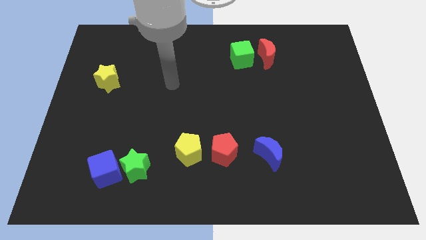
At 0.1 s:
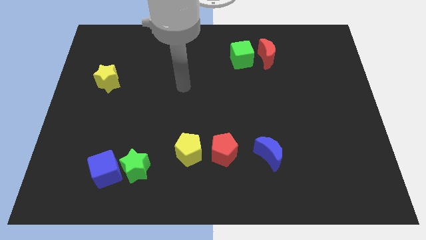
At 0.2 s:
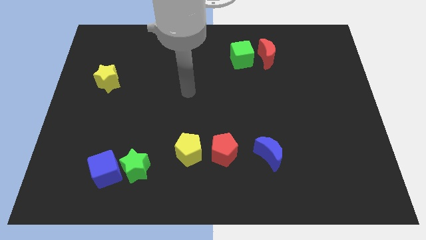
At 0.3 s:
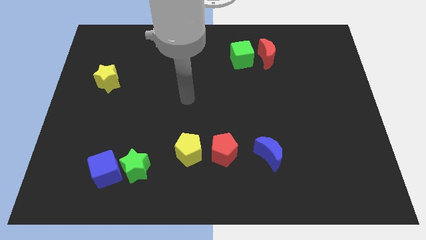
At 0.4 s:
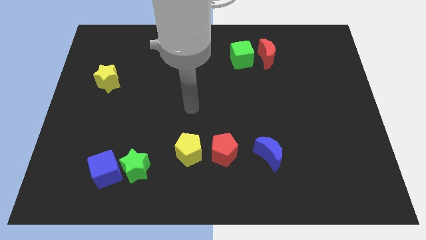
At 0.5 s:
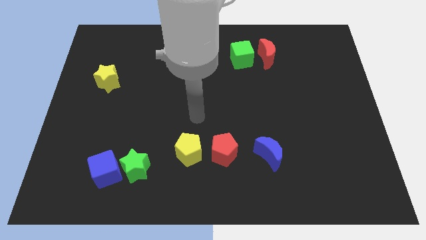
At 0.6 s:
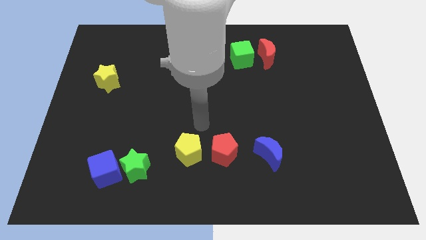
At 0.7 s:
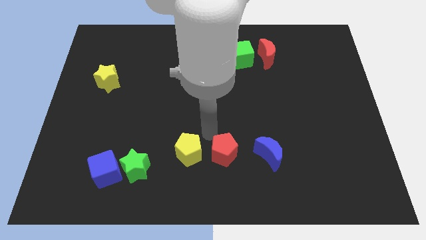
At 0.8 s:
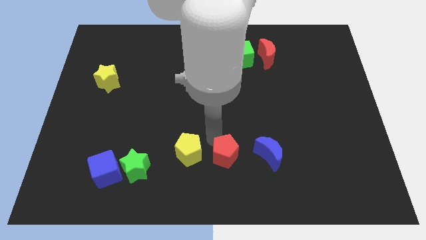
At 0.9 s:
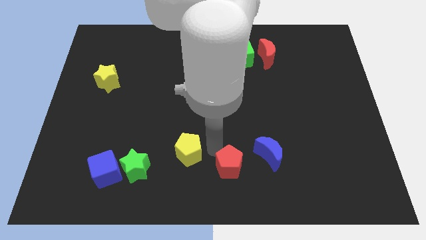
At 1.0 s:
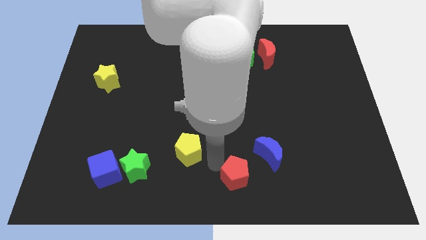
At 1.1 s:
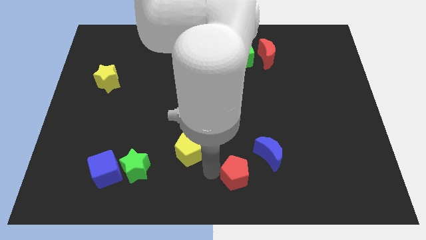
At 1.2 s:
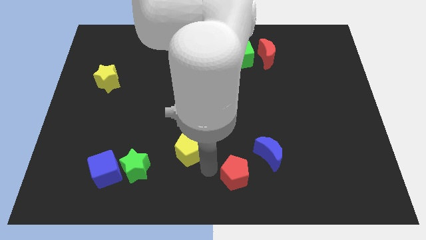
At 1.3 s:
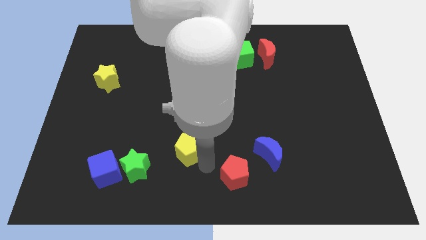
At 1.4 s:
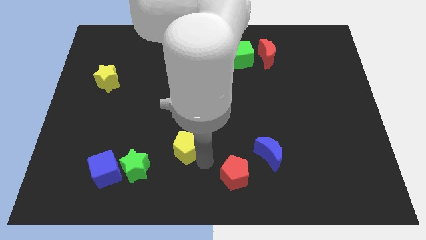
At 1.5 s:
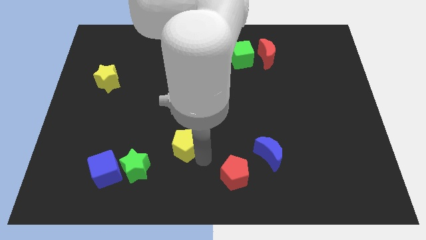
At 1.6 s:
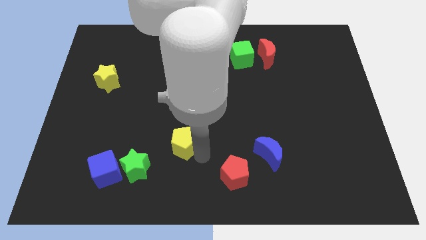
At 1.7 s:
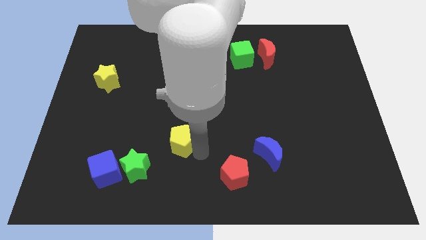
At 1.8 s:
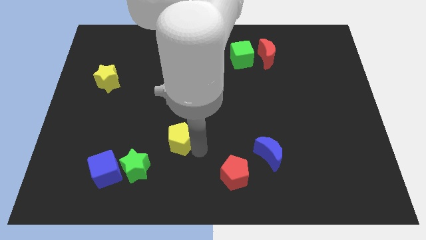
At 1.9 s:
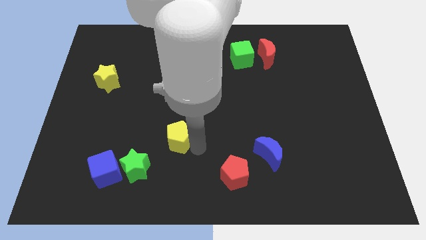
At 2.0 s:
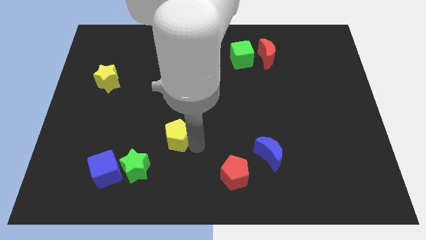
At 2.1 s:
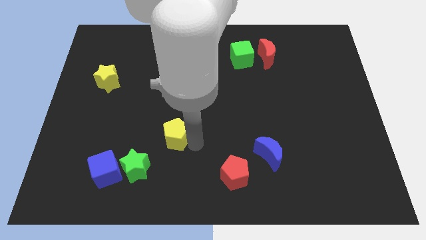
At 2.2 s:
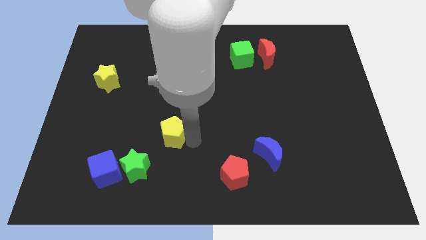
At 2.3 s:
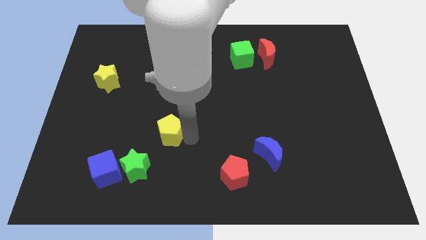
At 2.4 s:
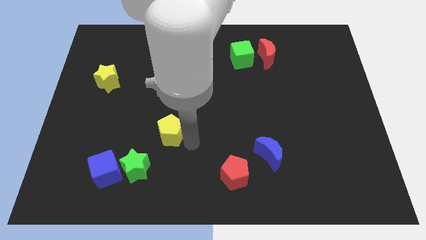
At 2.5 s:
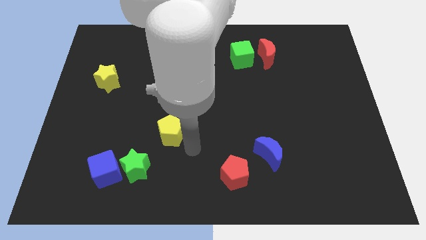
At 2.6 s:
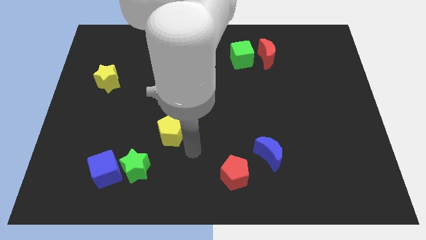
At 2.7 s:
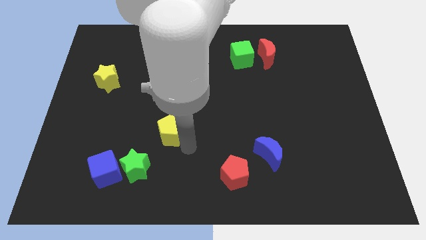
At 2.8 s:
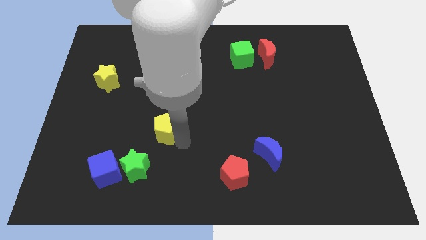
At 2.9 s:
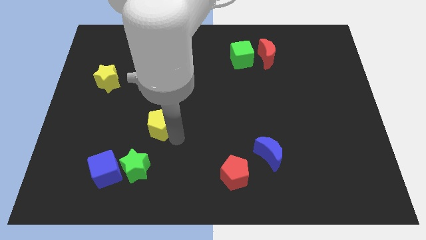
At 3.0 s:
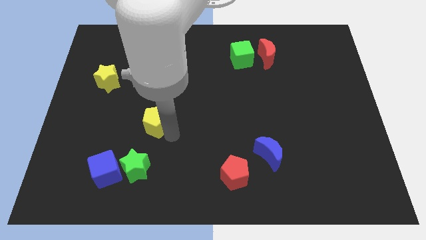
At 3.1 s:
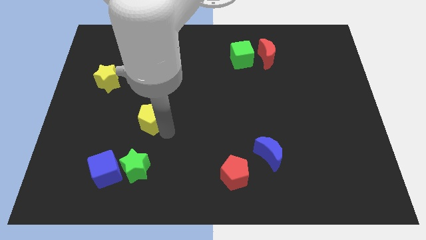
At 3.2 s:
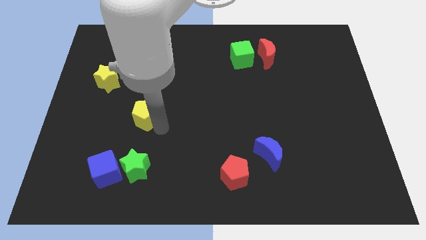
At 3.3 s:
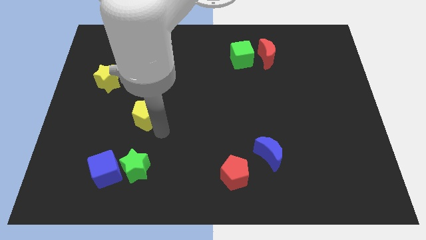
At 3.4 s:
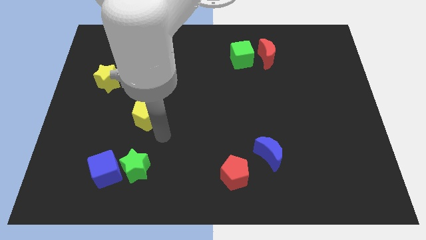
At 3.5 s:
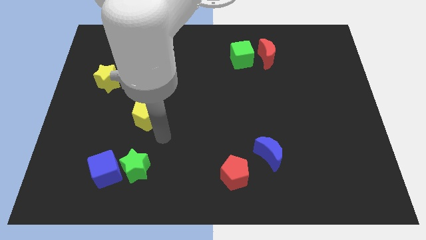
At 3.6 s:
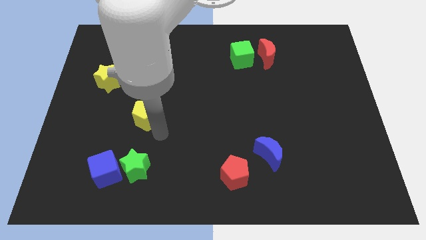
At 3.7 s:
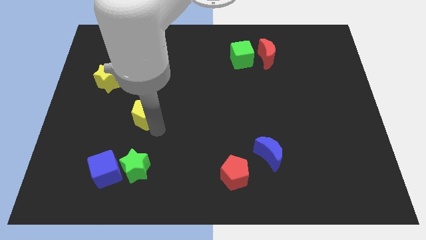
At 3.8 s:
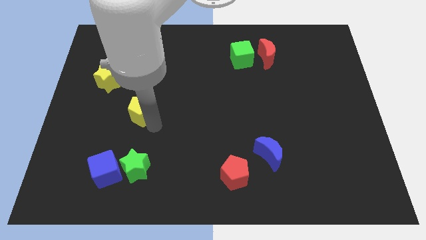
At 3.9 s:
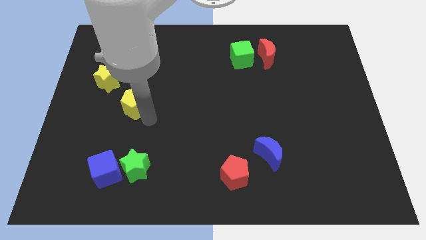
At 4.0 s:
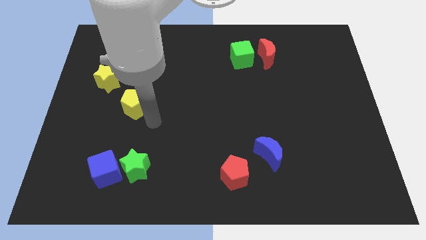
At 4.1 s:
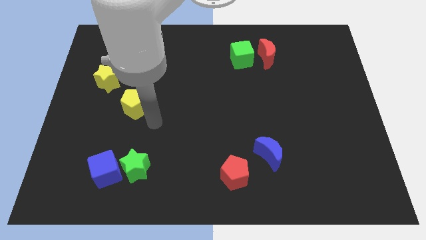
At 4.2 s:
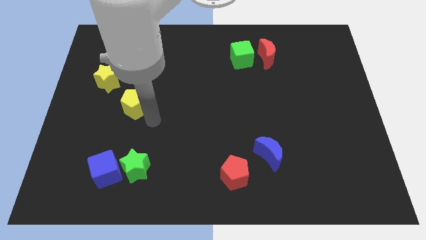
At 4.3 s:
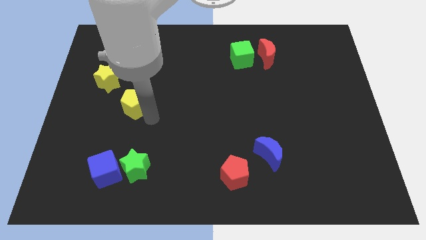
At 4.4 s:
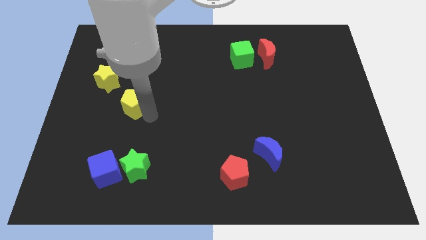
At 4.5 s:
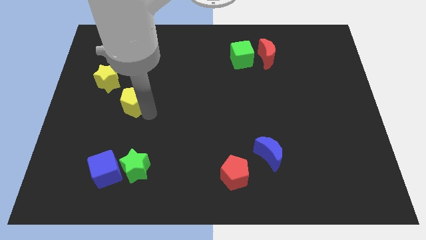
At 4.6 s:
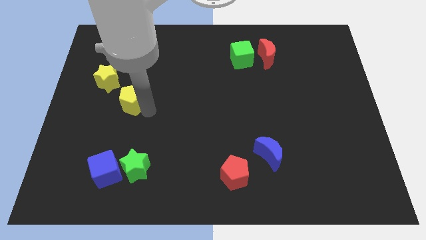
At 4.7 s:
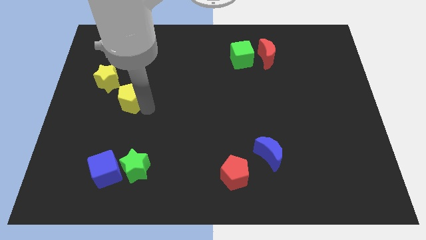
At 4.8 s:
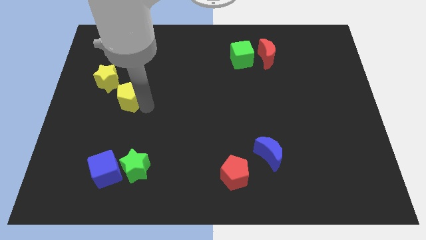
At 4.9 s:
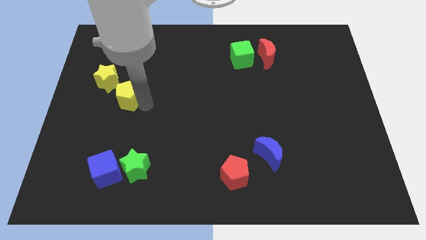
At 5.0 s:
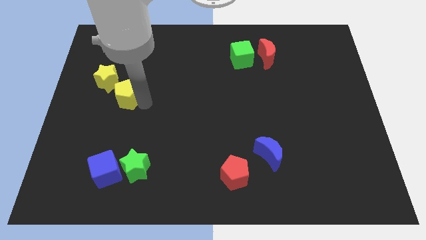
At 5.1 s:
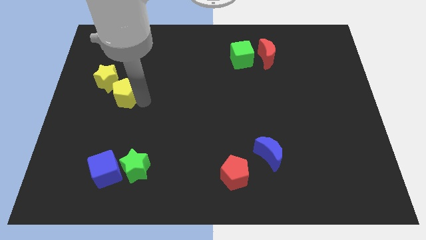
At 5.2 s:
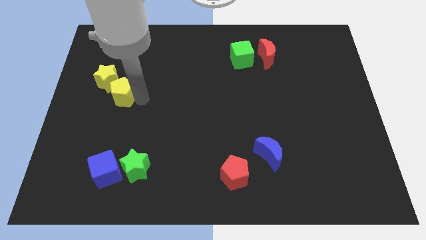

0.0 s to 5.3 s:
put the yellow pentagon next to the yellow star

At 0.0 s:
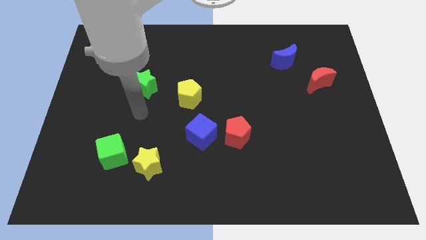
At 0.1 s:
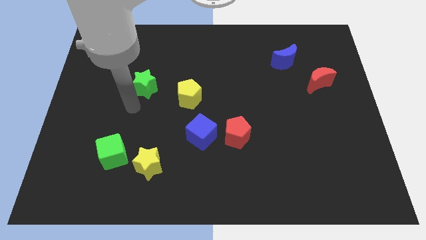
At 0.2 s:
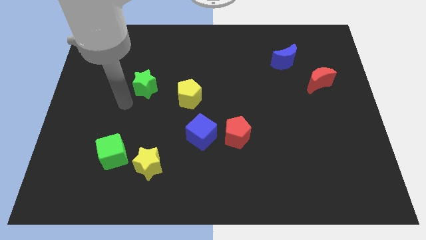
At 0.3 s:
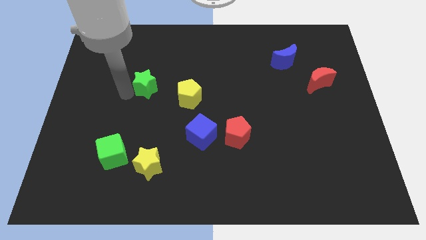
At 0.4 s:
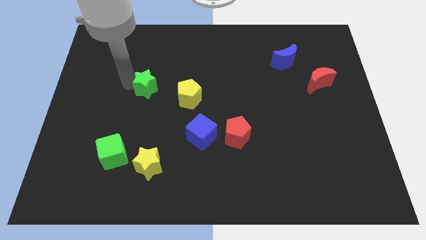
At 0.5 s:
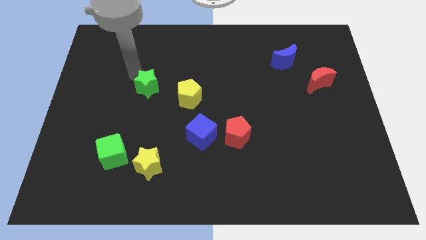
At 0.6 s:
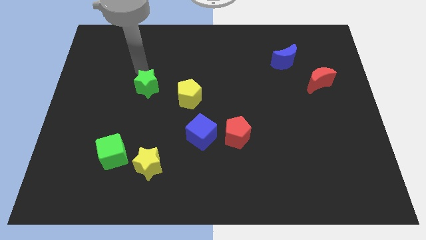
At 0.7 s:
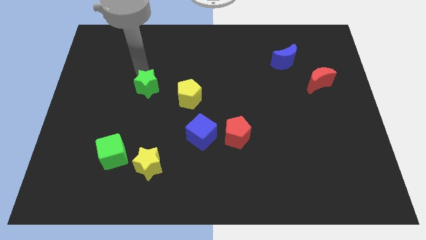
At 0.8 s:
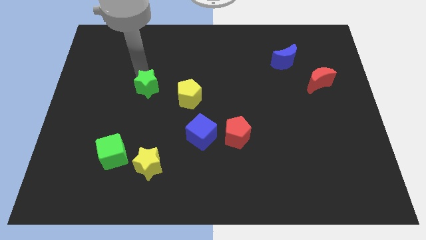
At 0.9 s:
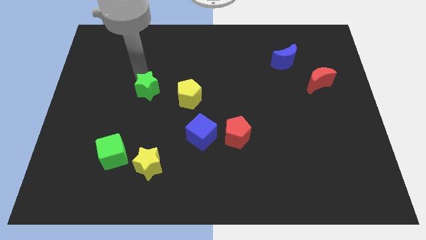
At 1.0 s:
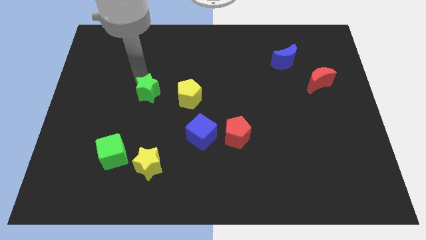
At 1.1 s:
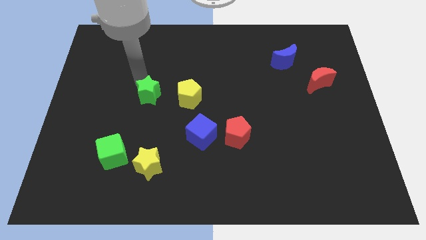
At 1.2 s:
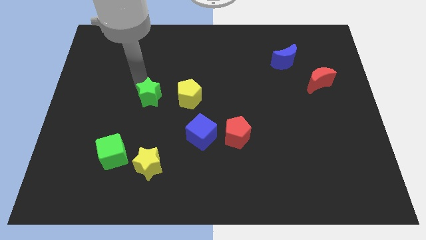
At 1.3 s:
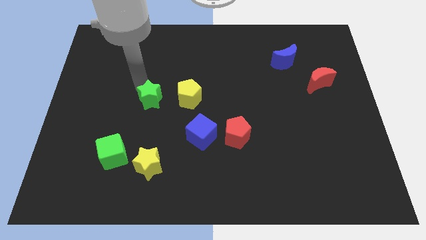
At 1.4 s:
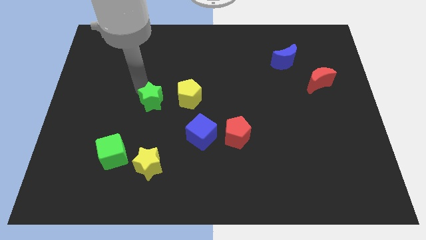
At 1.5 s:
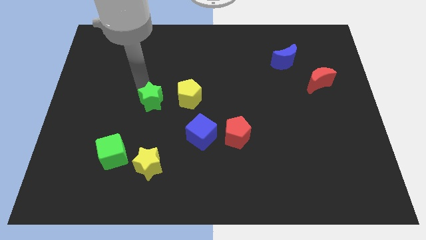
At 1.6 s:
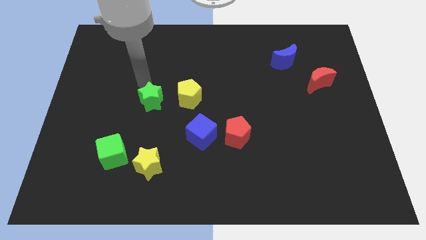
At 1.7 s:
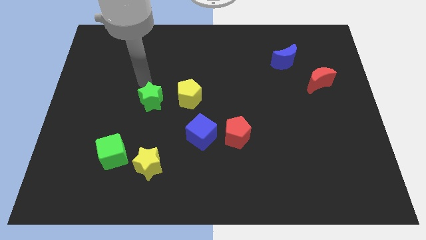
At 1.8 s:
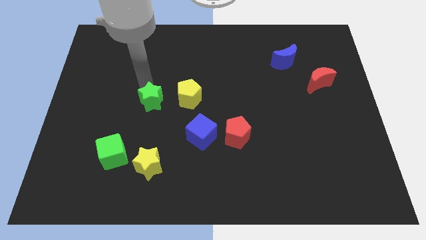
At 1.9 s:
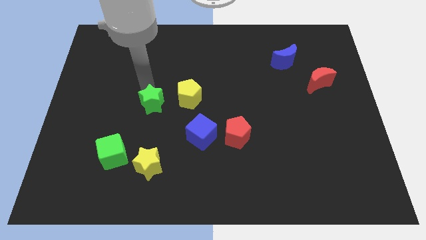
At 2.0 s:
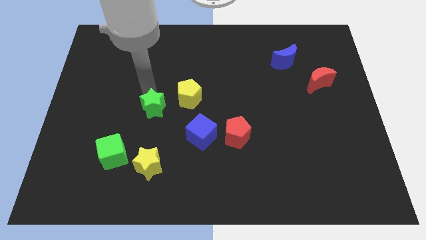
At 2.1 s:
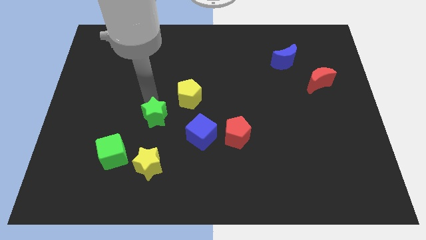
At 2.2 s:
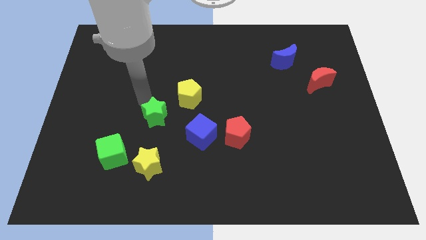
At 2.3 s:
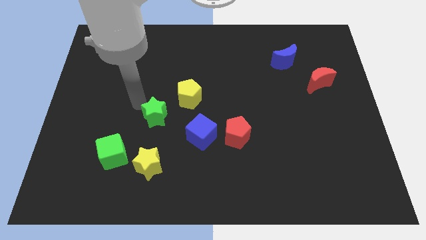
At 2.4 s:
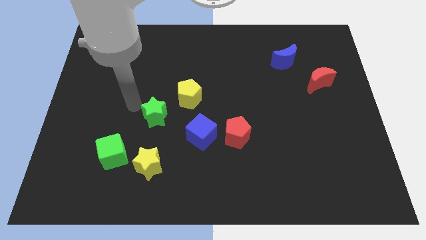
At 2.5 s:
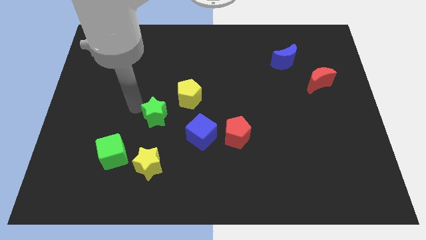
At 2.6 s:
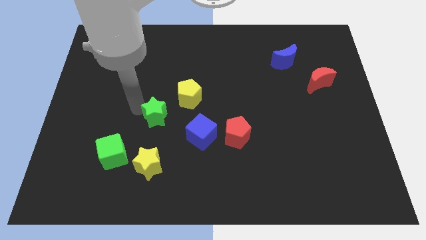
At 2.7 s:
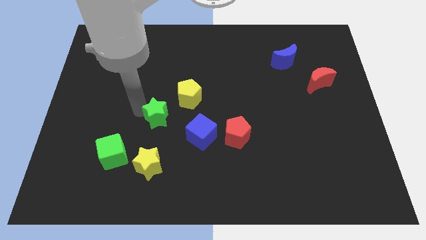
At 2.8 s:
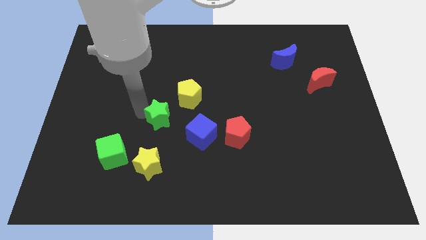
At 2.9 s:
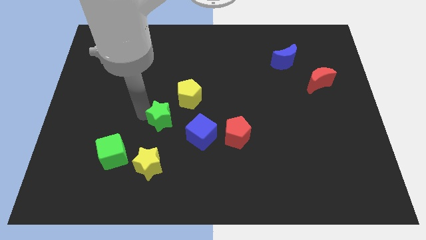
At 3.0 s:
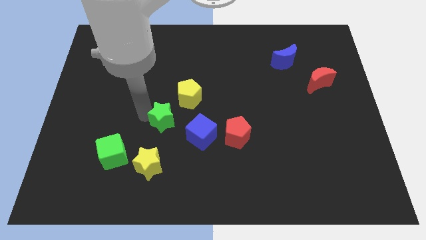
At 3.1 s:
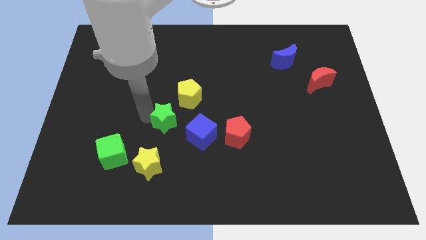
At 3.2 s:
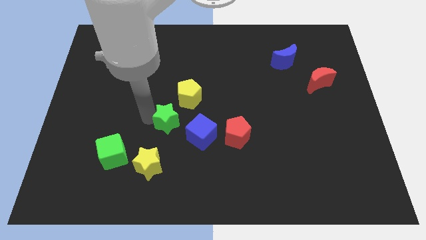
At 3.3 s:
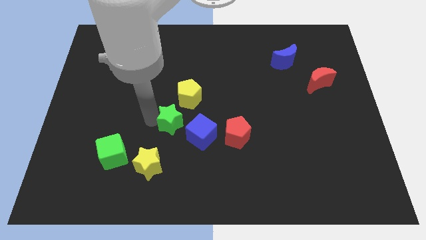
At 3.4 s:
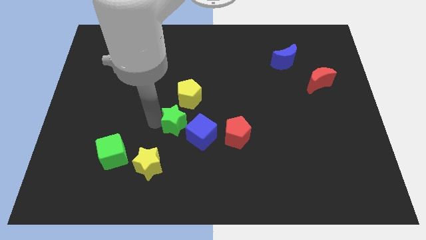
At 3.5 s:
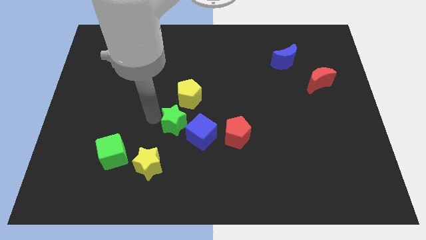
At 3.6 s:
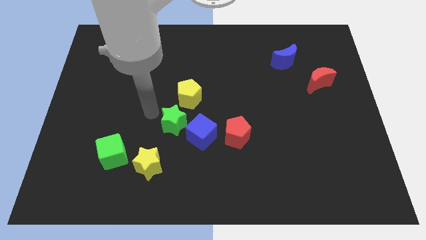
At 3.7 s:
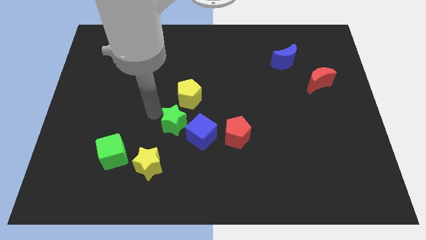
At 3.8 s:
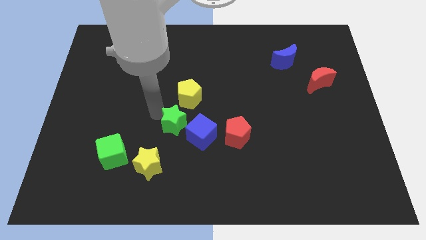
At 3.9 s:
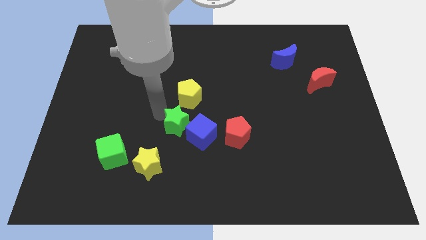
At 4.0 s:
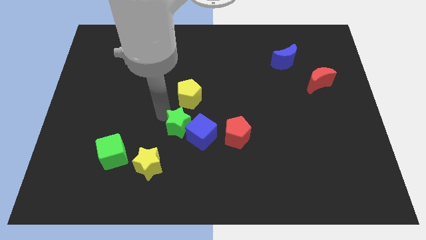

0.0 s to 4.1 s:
move the green star to the blue cube
